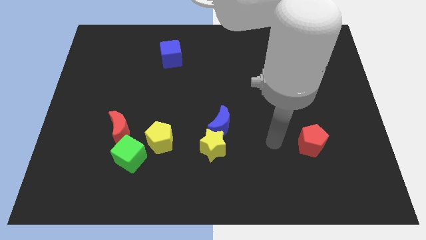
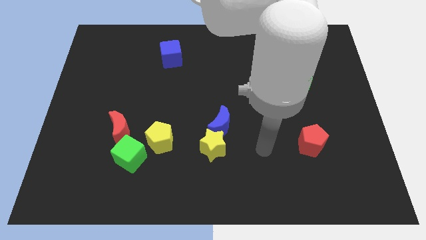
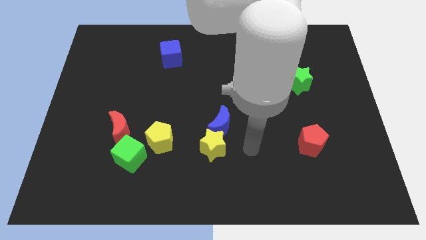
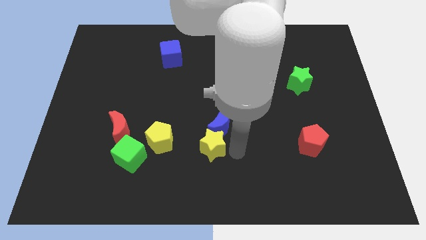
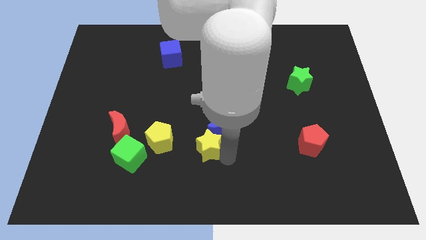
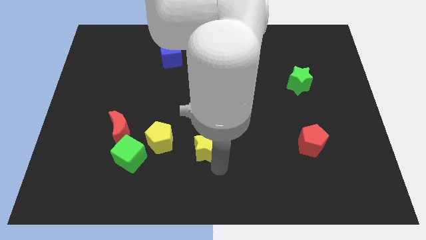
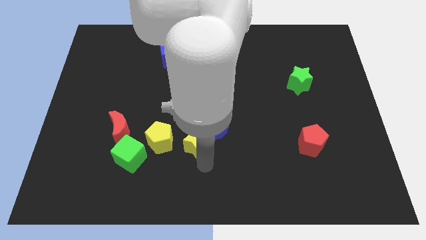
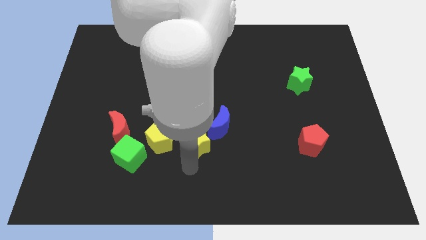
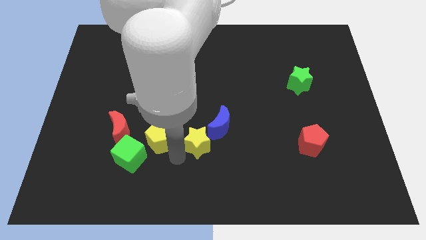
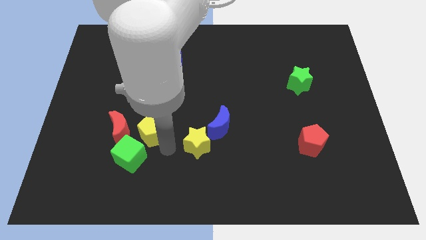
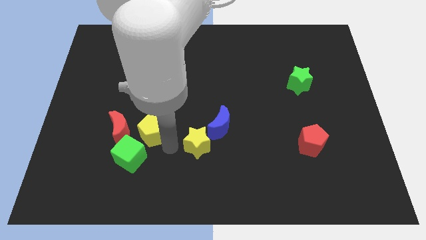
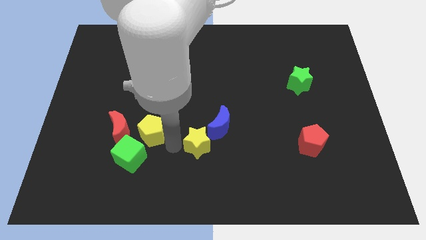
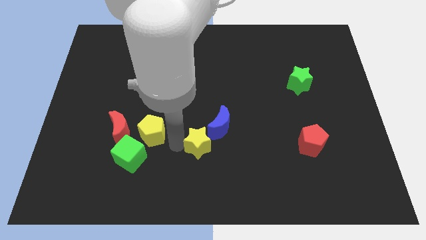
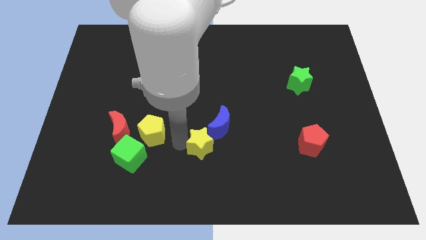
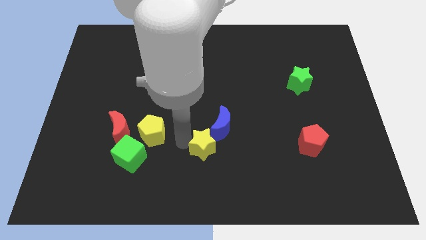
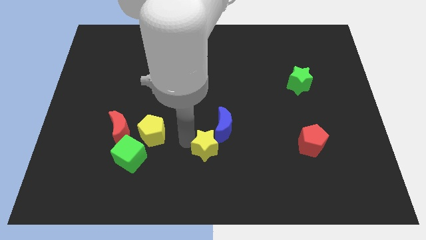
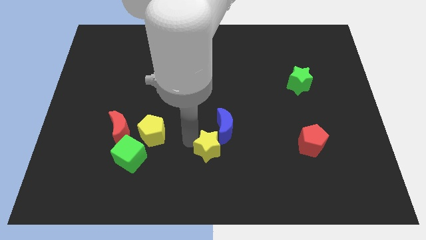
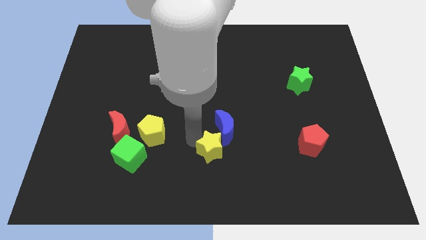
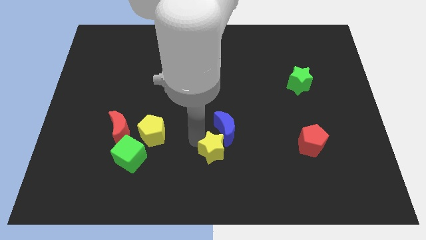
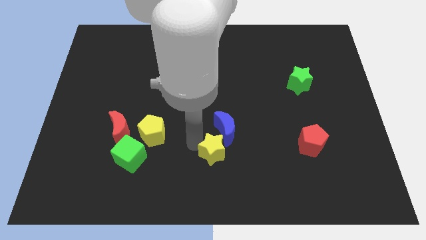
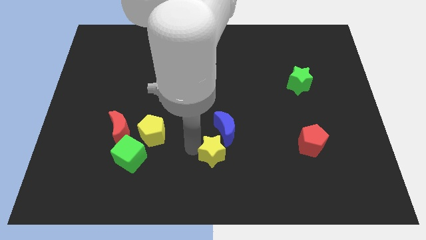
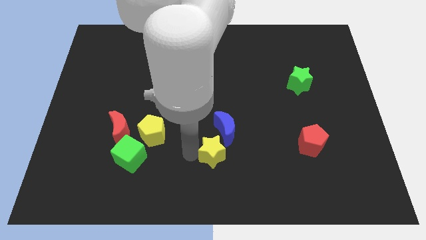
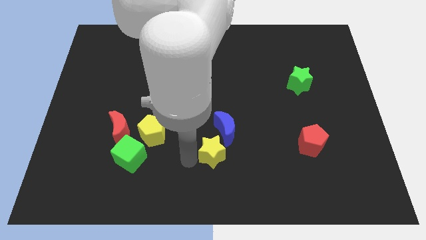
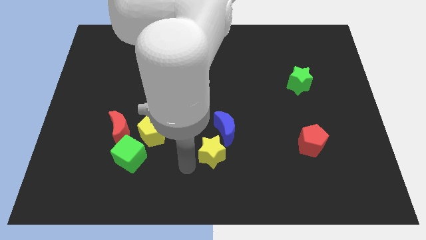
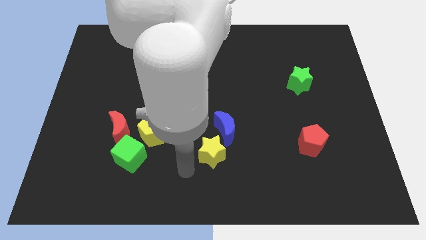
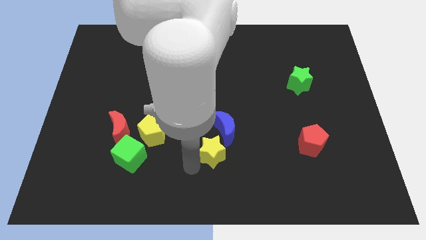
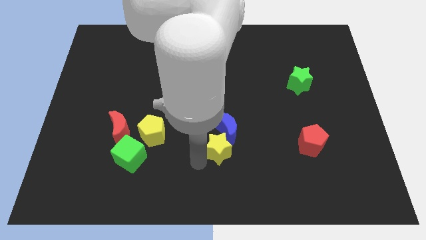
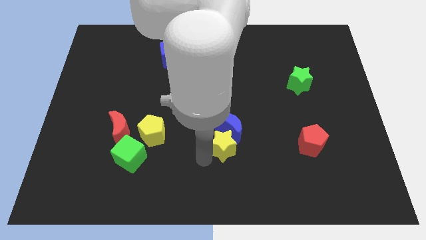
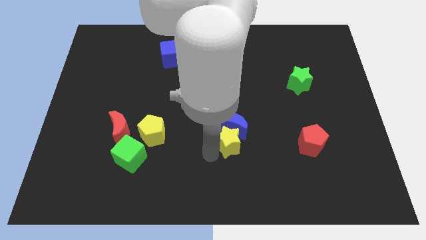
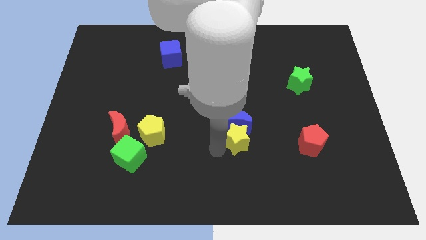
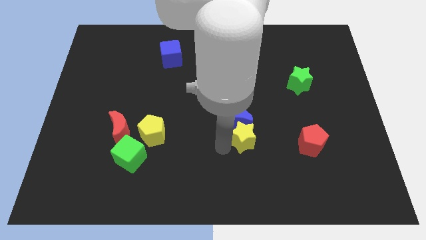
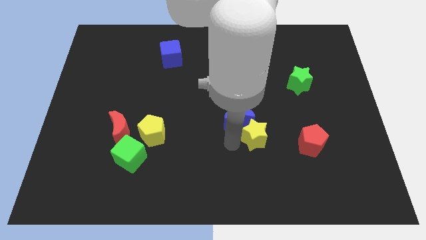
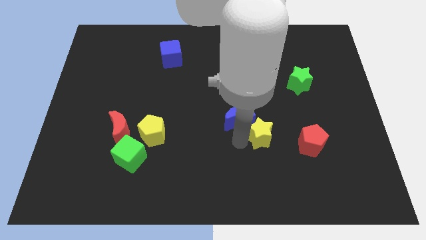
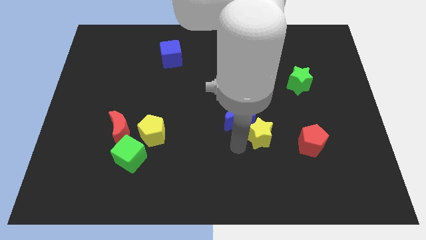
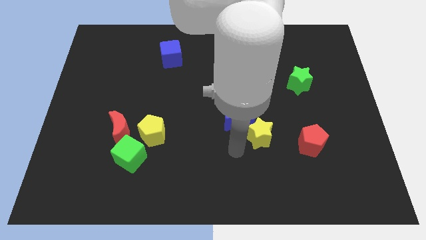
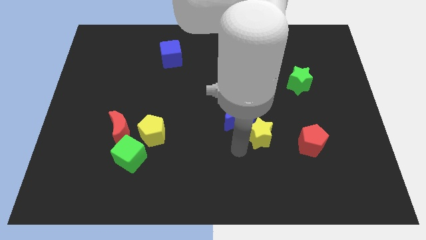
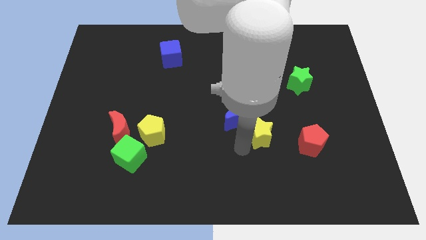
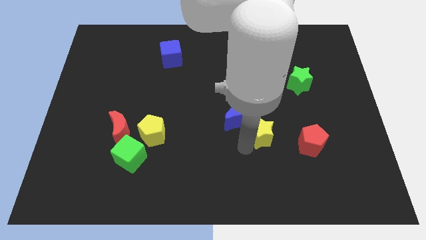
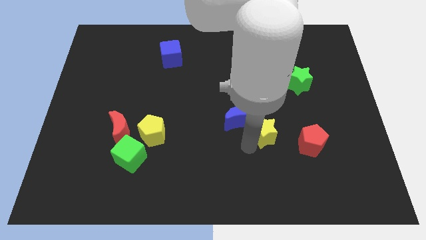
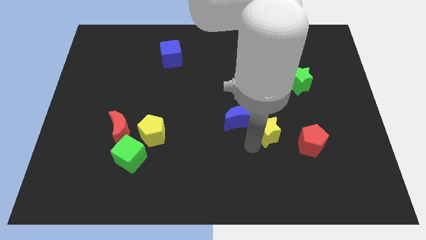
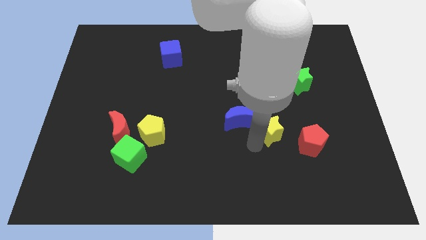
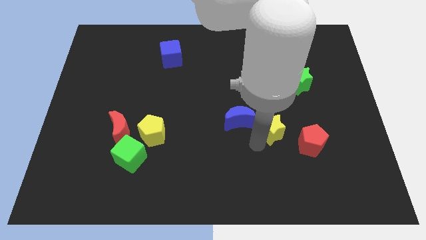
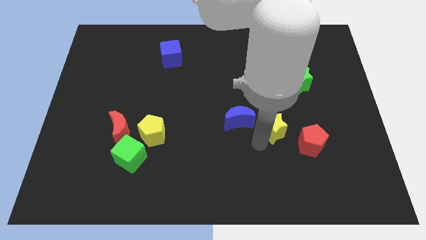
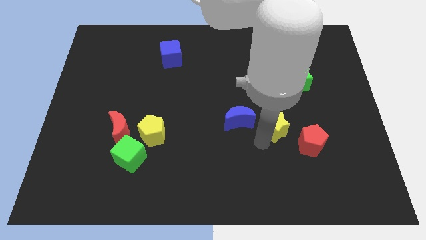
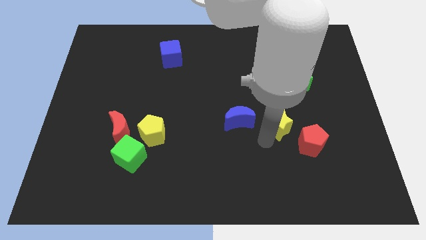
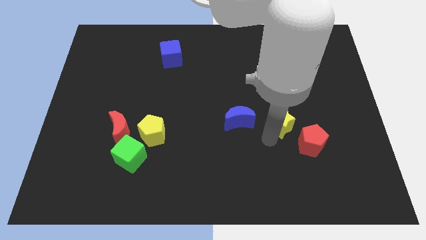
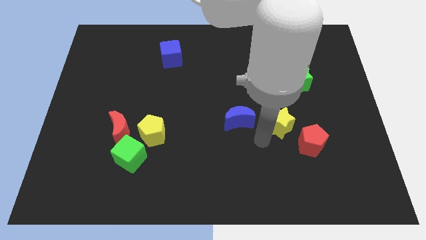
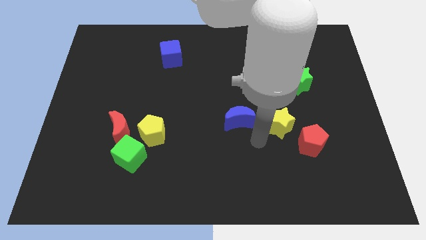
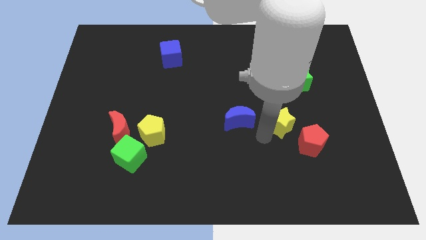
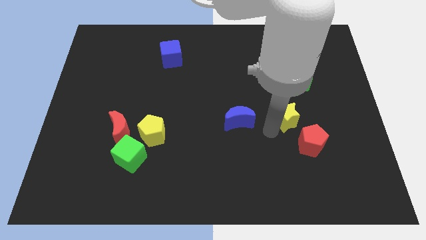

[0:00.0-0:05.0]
push the yellow star to the top of the red pentagon

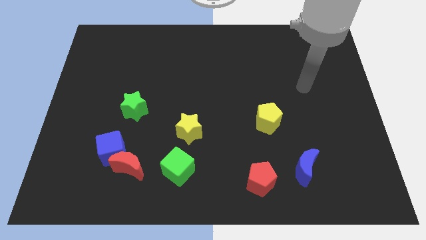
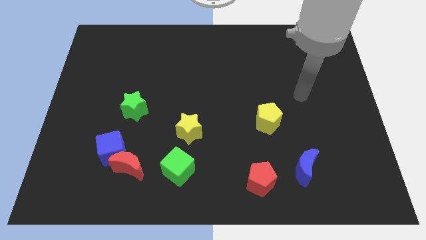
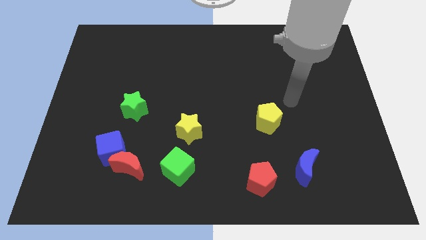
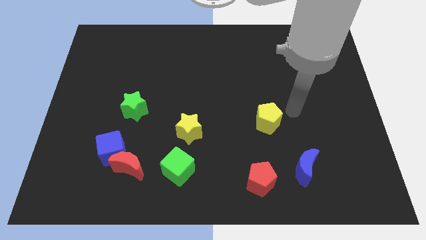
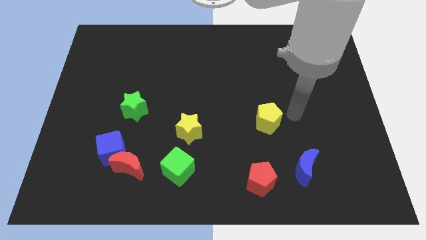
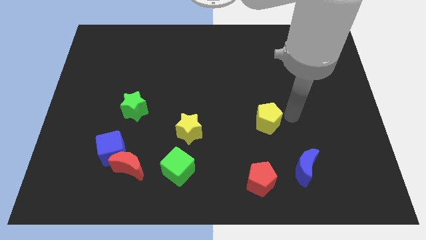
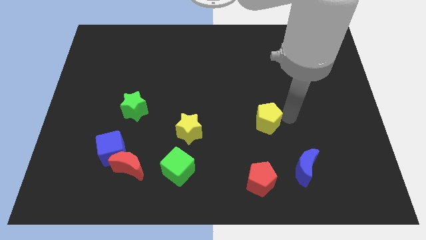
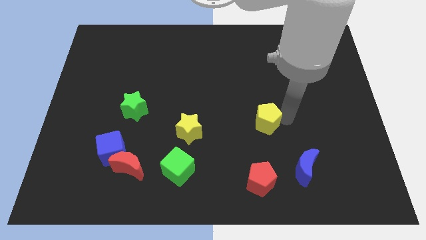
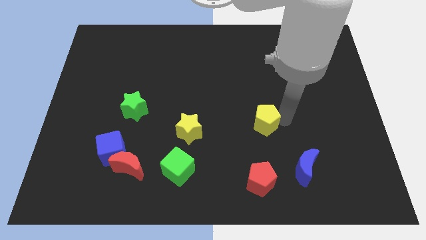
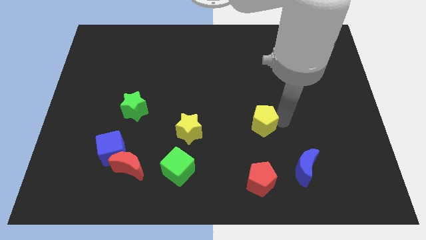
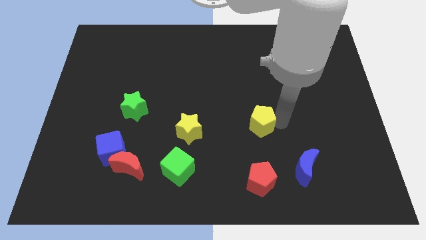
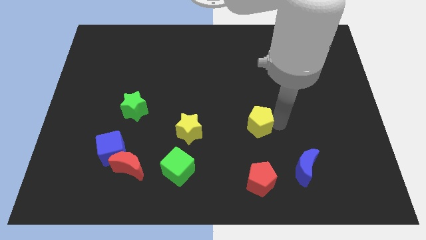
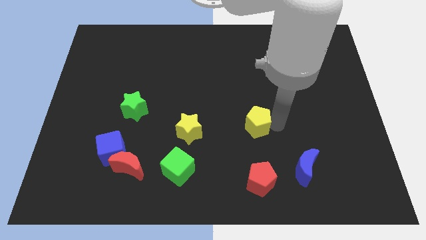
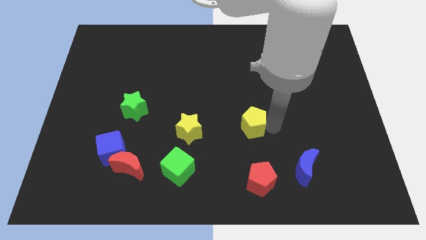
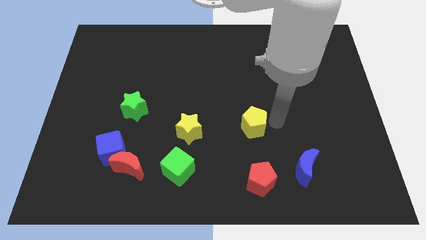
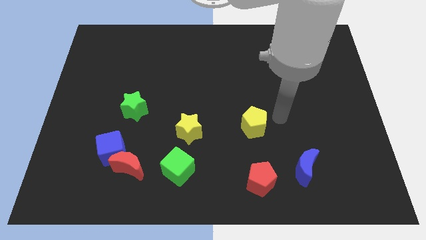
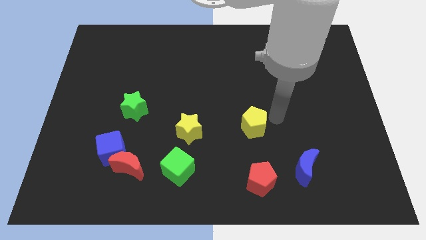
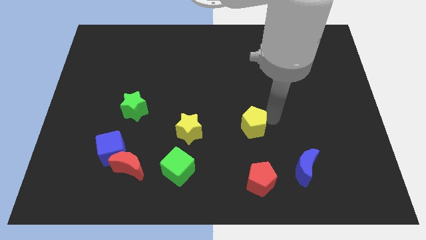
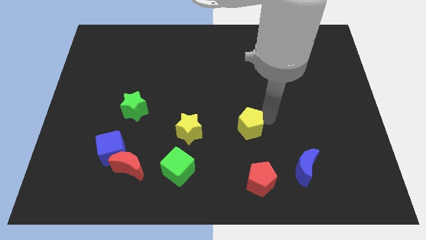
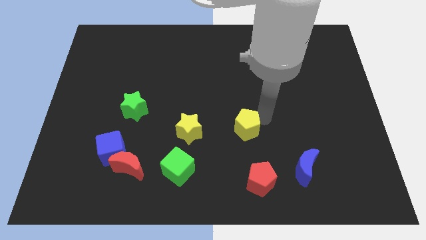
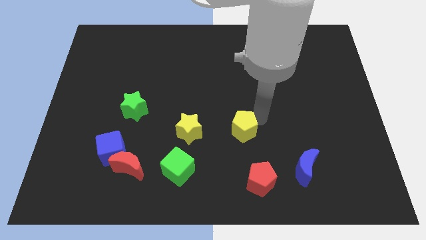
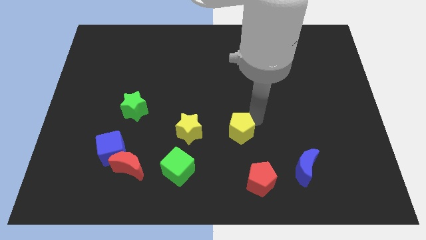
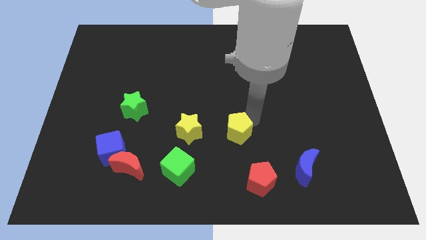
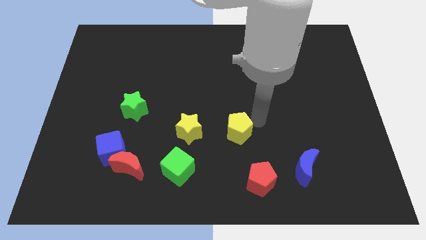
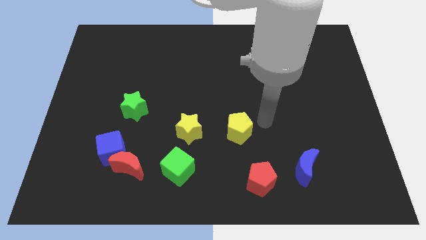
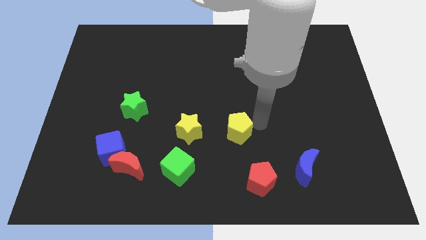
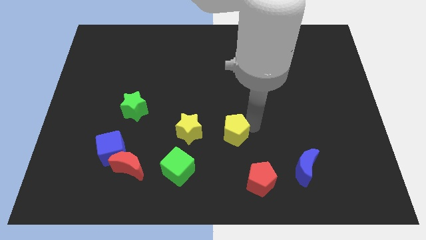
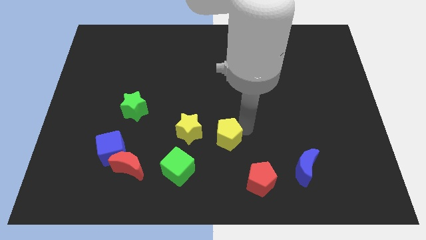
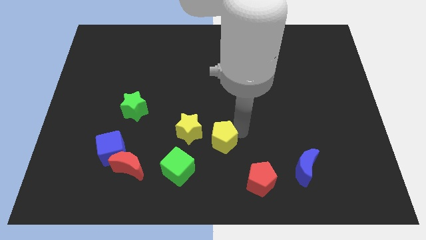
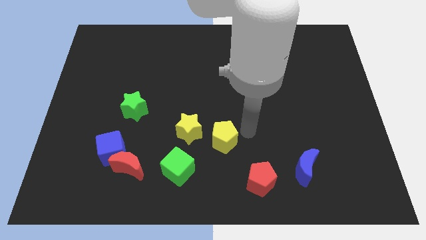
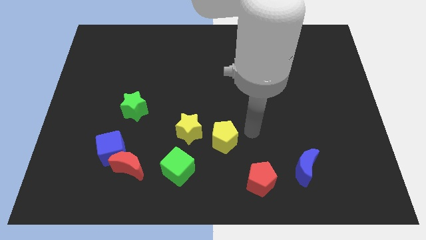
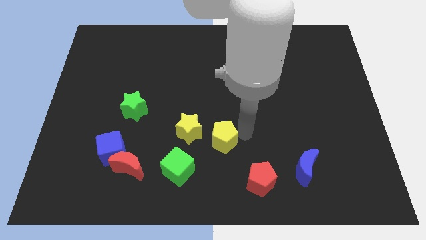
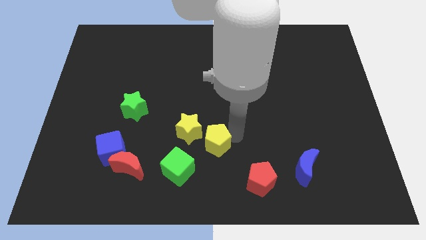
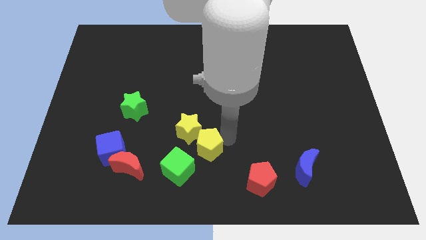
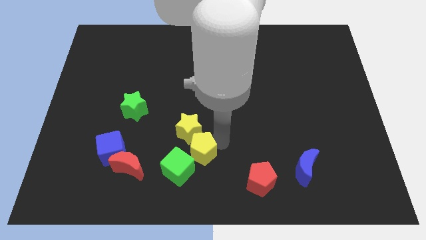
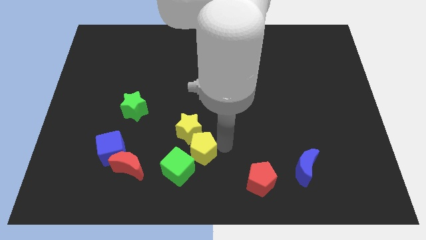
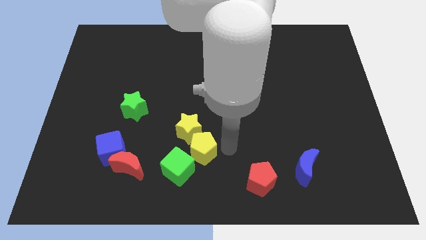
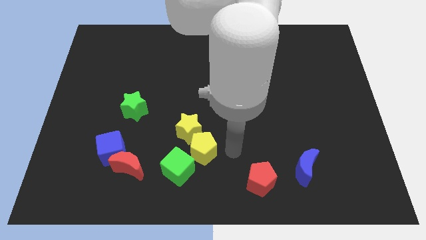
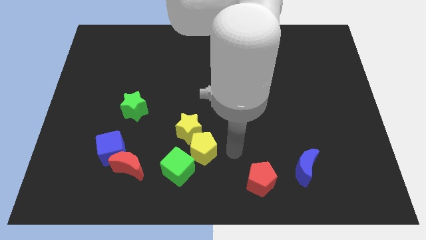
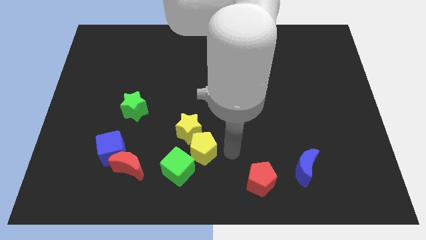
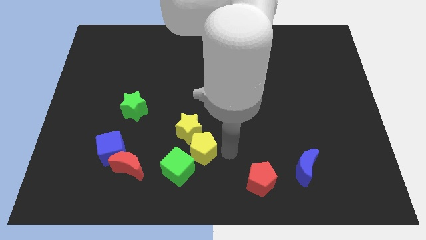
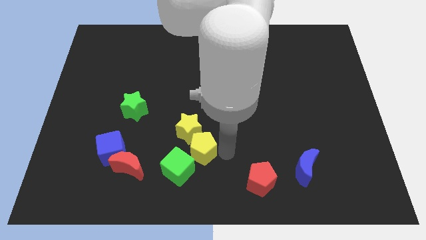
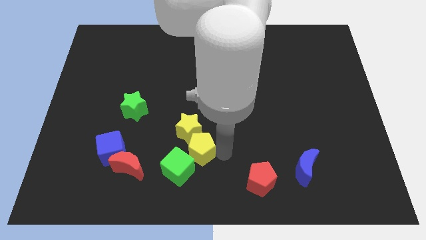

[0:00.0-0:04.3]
slide the yellow pentagon to the top side of the green cube
